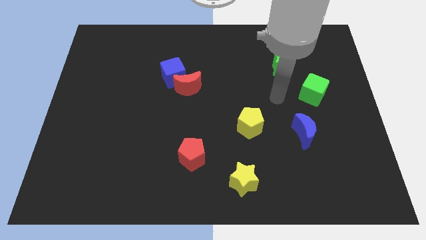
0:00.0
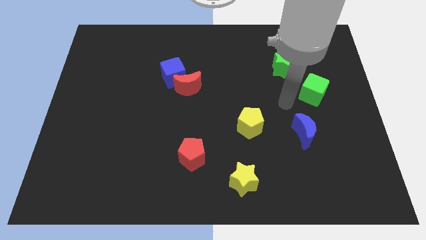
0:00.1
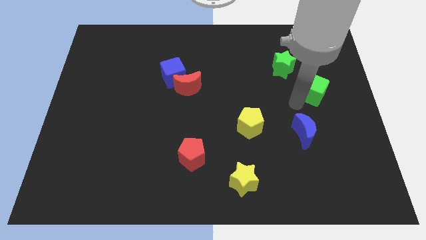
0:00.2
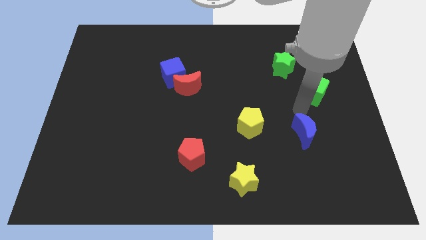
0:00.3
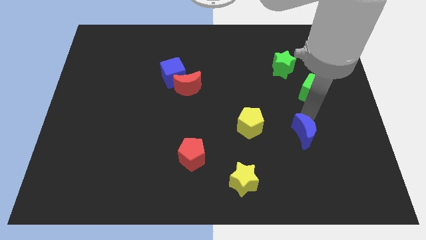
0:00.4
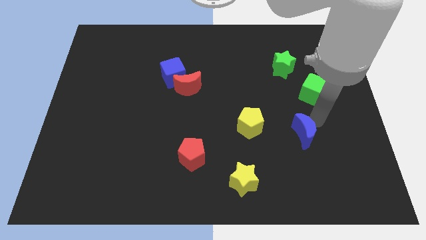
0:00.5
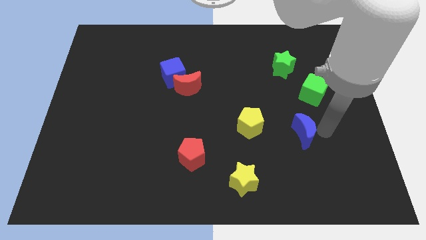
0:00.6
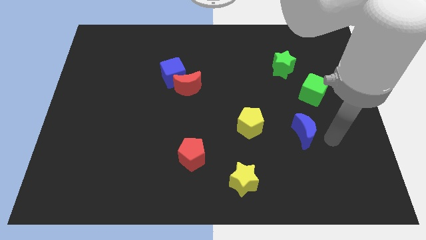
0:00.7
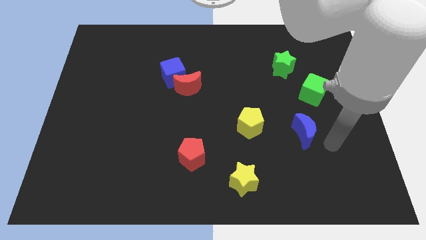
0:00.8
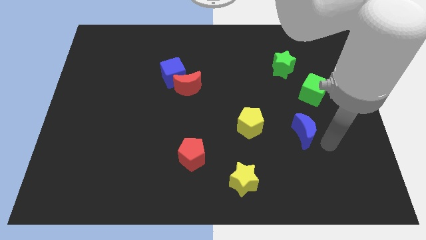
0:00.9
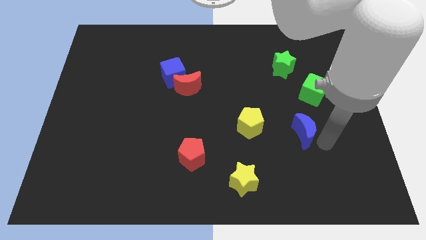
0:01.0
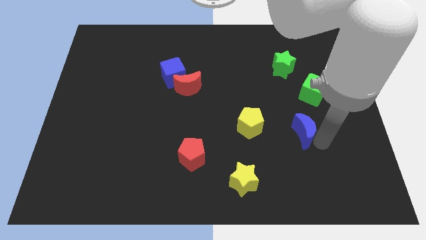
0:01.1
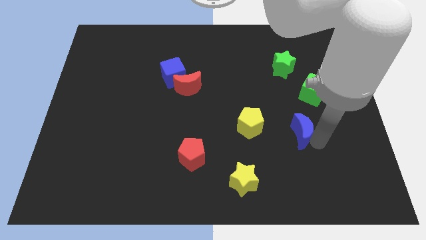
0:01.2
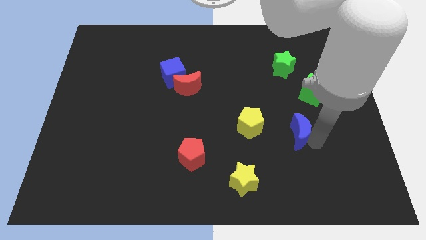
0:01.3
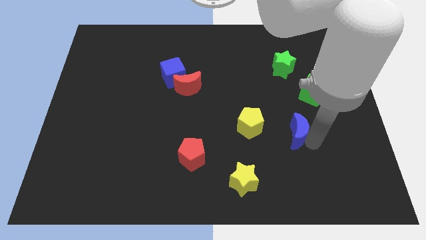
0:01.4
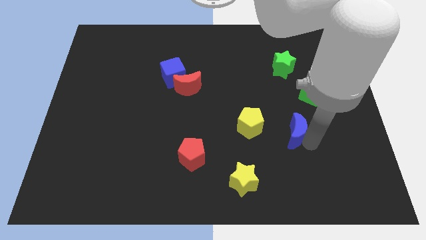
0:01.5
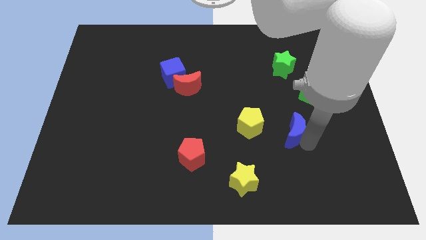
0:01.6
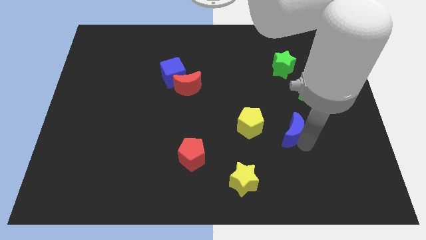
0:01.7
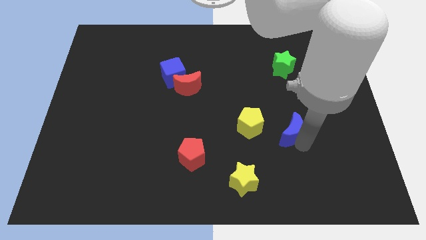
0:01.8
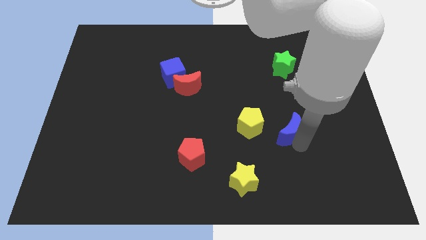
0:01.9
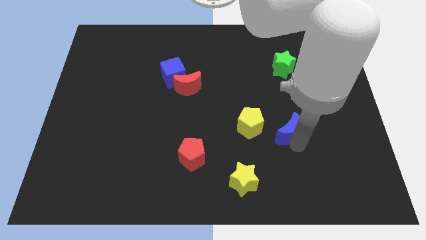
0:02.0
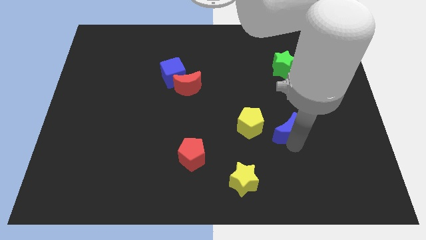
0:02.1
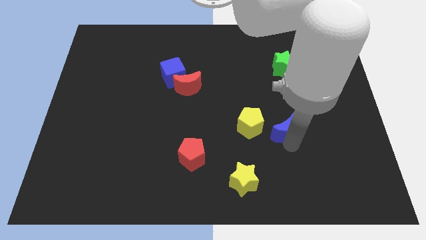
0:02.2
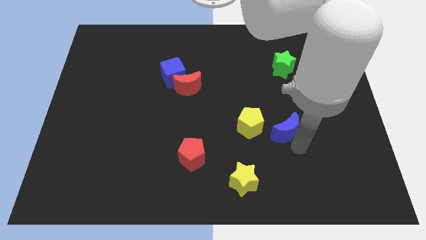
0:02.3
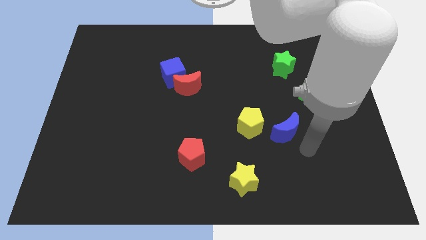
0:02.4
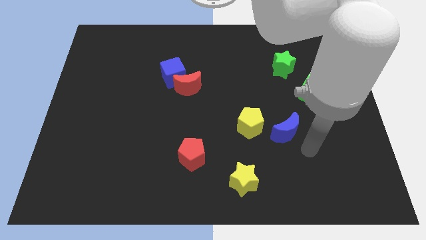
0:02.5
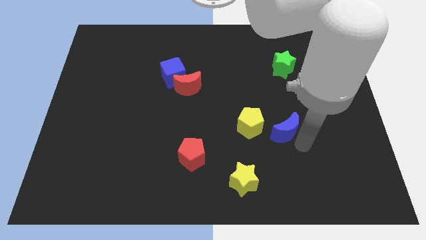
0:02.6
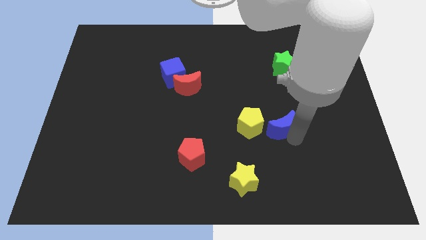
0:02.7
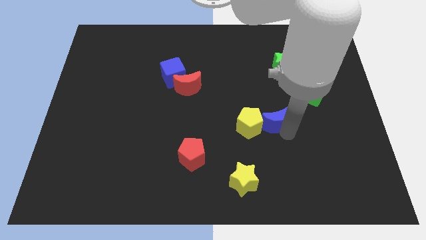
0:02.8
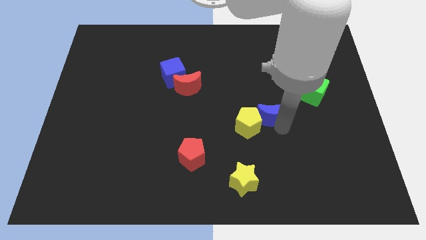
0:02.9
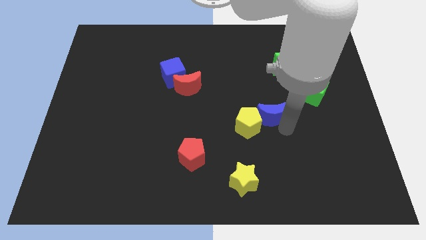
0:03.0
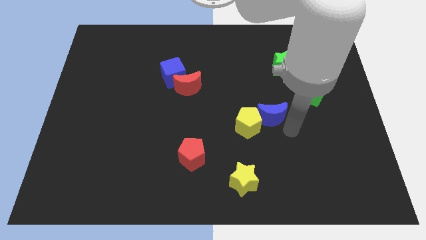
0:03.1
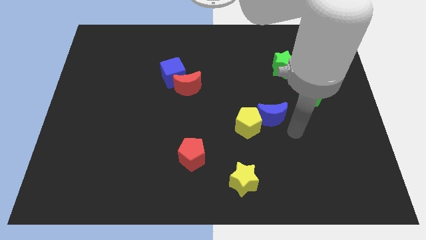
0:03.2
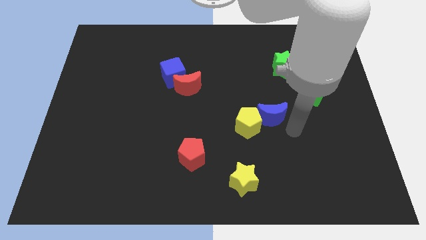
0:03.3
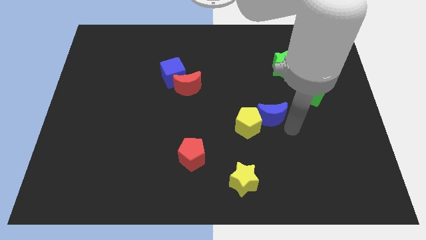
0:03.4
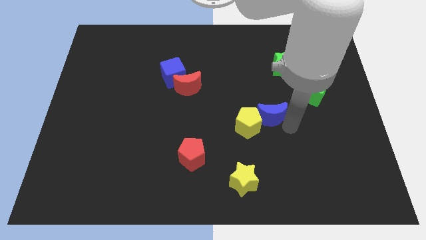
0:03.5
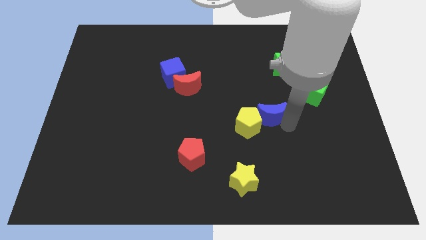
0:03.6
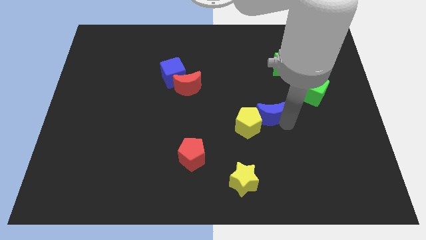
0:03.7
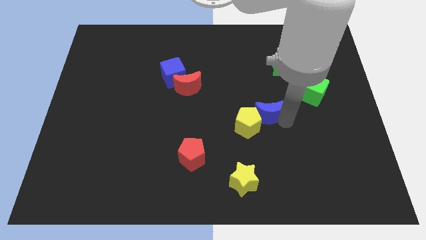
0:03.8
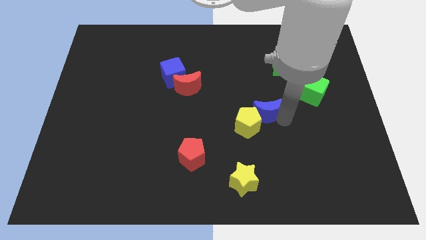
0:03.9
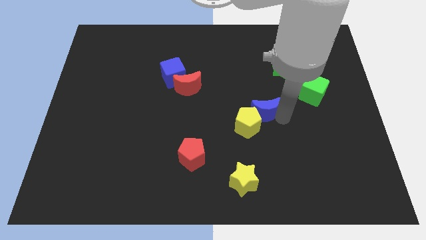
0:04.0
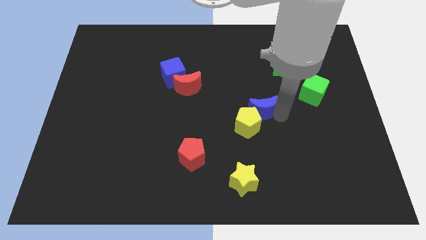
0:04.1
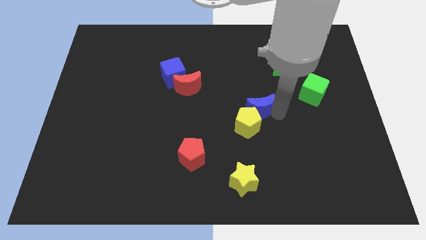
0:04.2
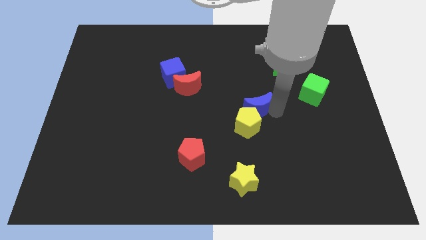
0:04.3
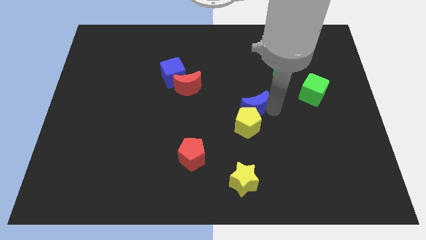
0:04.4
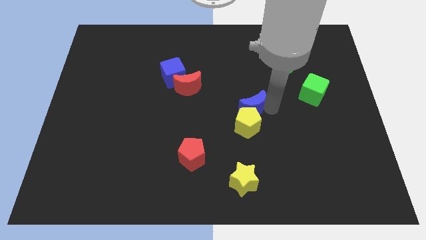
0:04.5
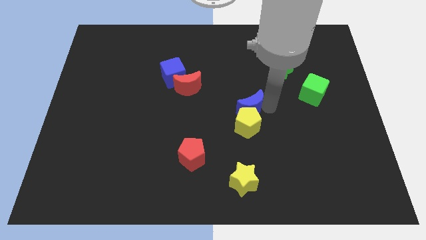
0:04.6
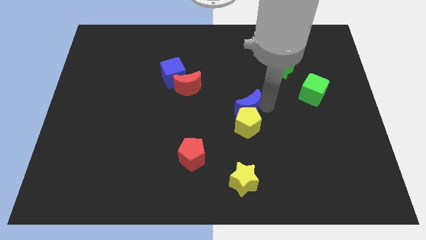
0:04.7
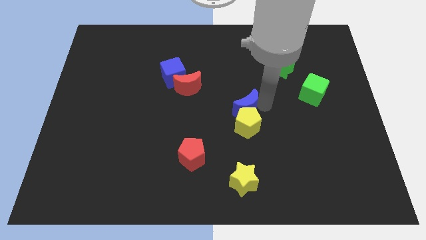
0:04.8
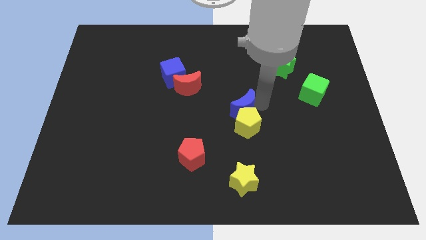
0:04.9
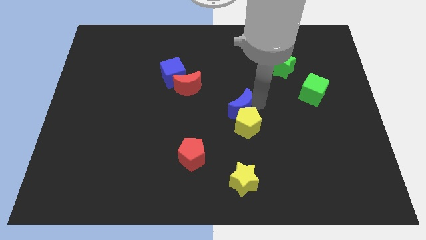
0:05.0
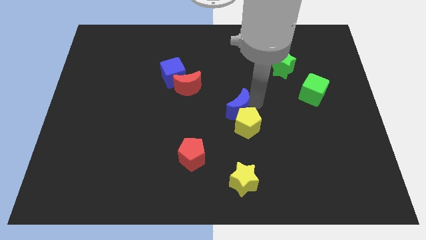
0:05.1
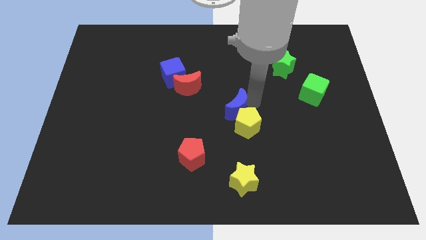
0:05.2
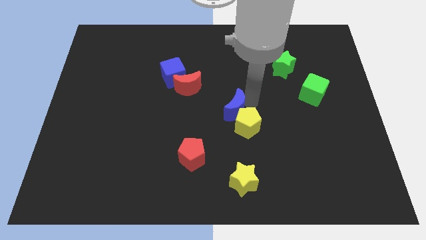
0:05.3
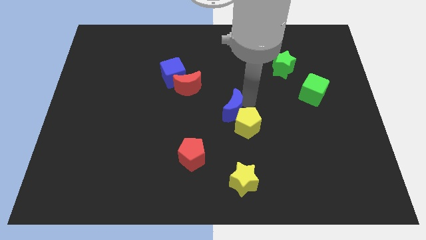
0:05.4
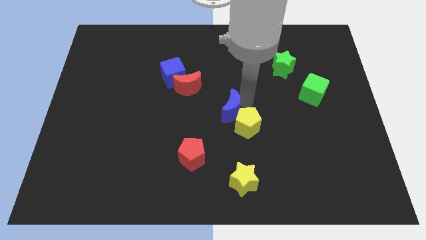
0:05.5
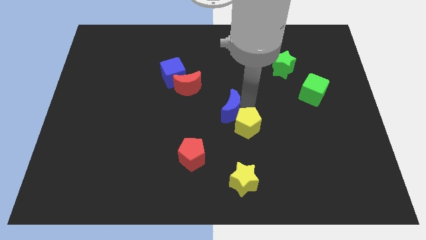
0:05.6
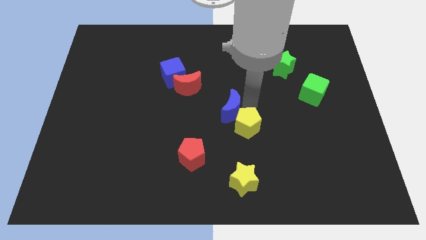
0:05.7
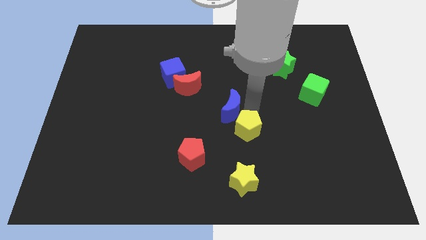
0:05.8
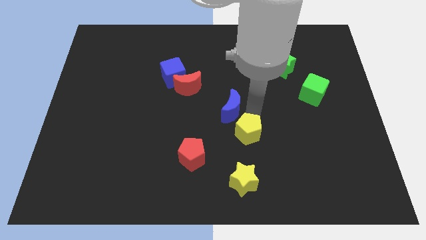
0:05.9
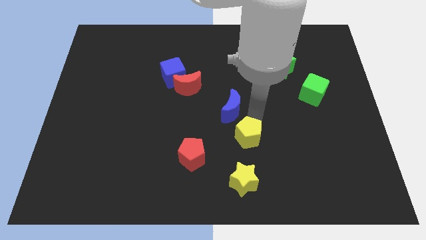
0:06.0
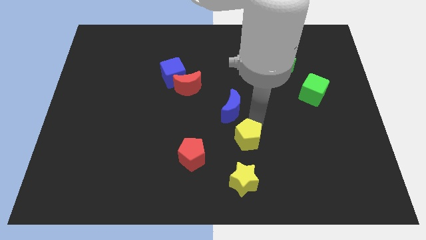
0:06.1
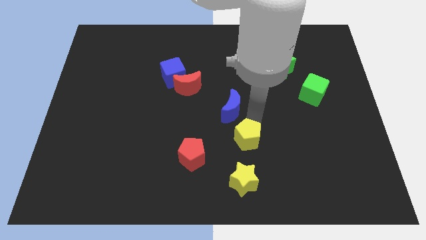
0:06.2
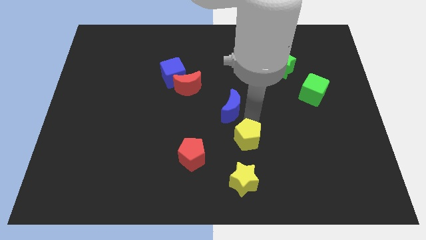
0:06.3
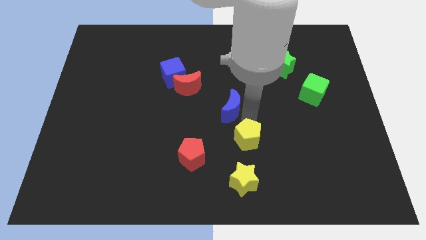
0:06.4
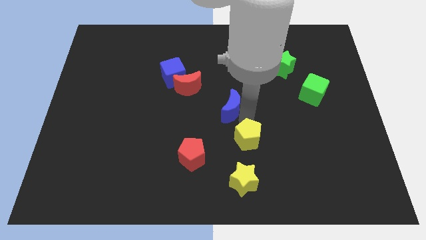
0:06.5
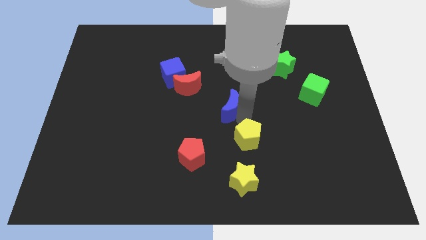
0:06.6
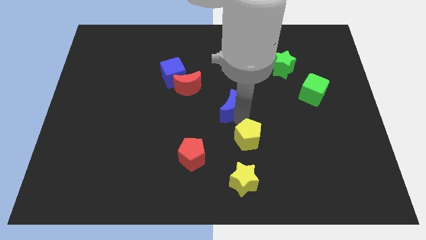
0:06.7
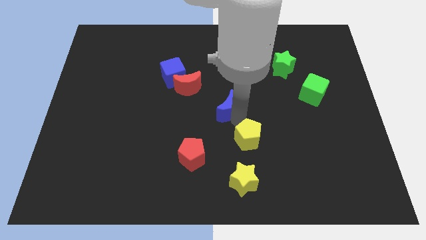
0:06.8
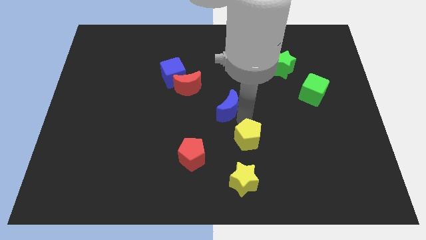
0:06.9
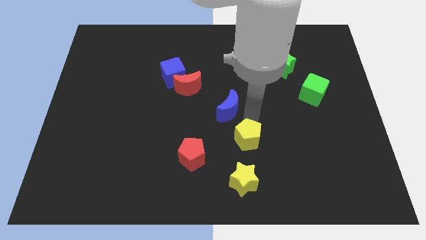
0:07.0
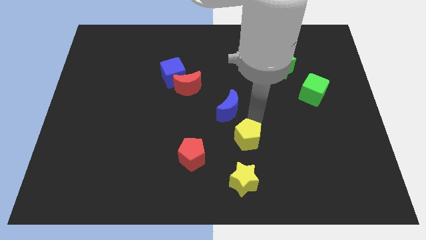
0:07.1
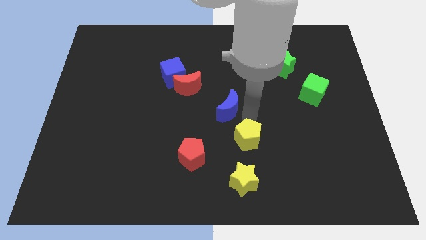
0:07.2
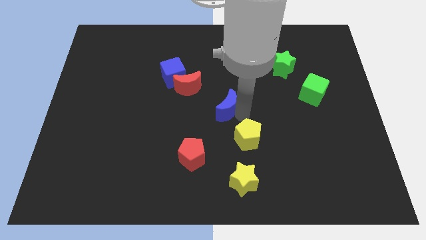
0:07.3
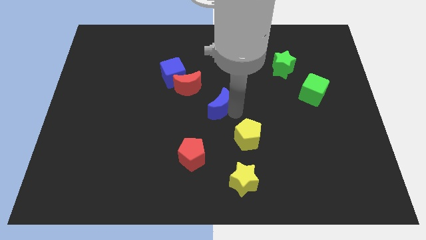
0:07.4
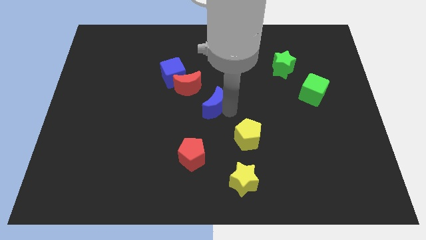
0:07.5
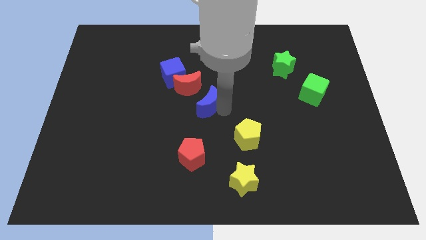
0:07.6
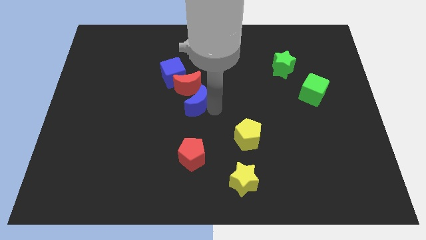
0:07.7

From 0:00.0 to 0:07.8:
put the blue moon to the red moon
